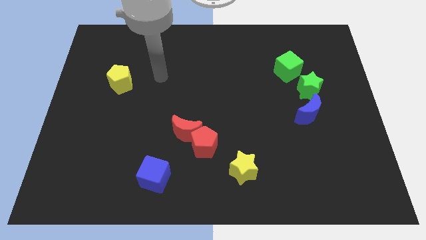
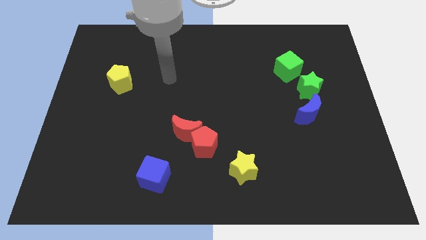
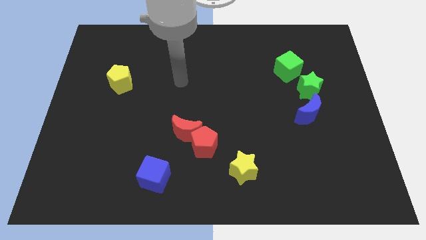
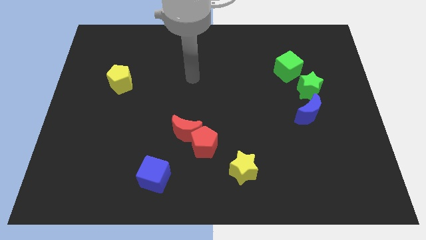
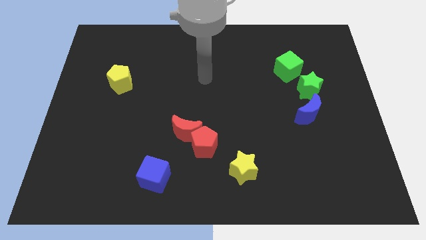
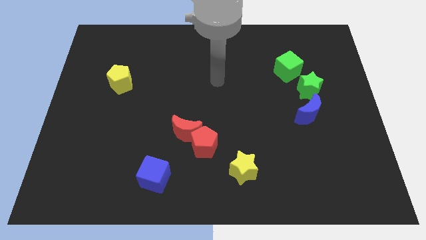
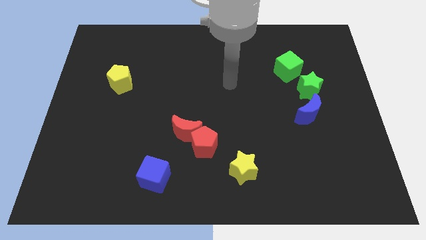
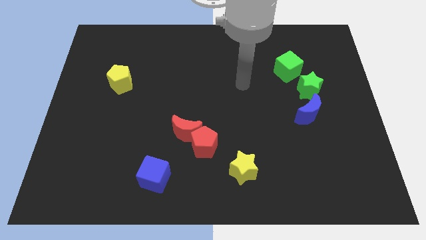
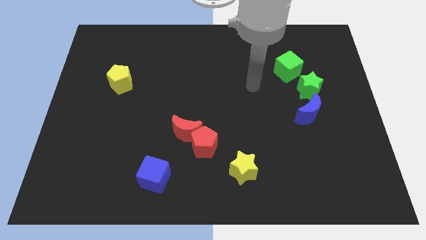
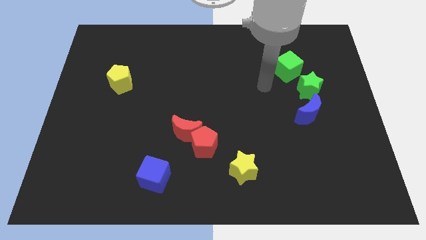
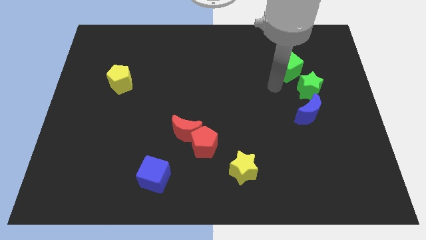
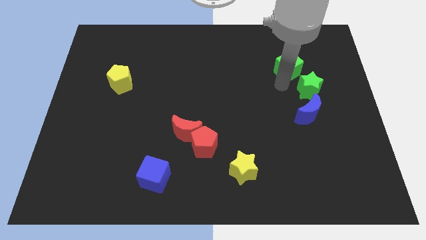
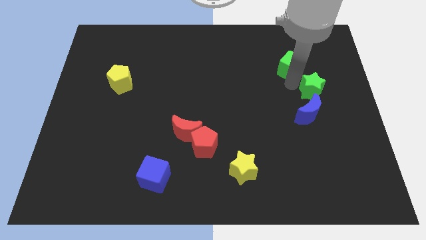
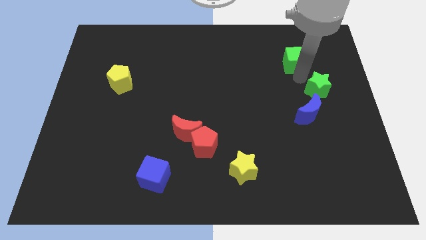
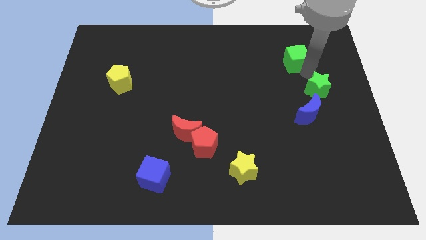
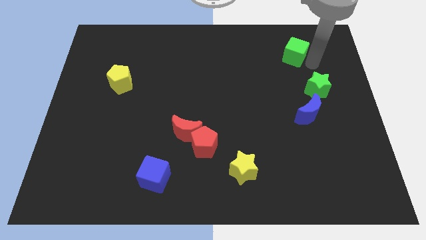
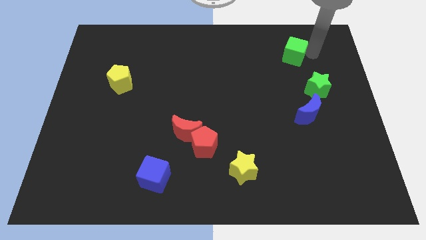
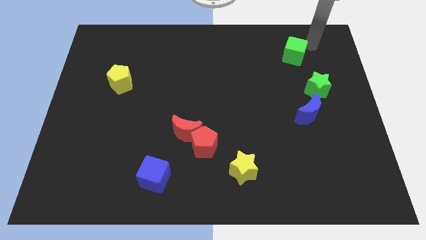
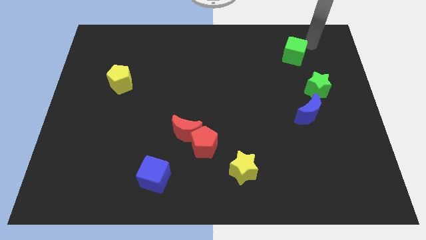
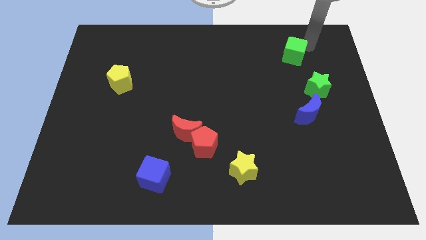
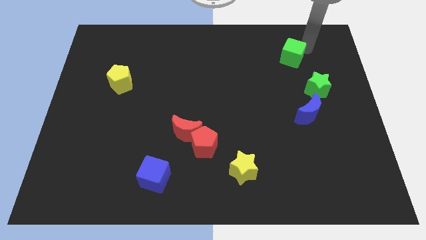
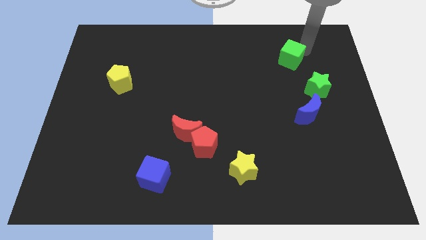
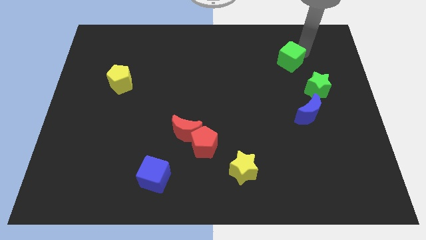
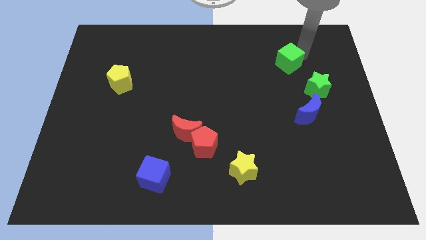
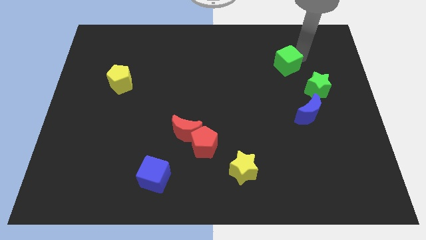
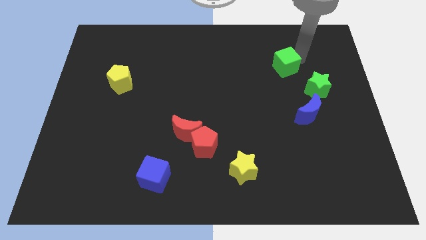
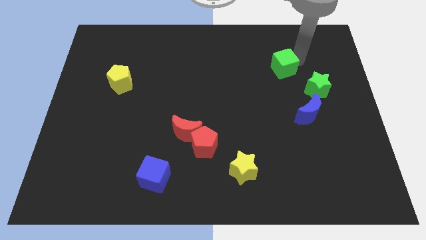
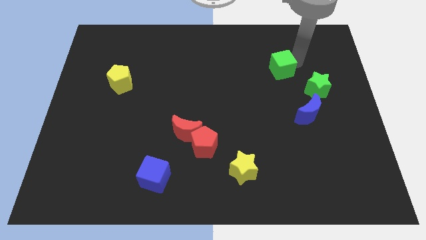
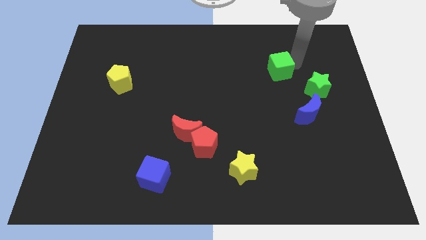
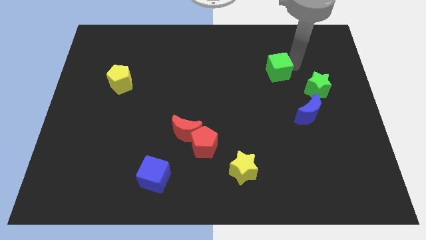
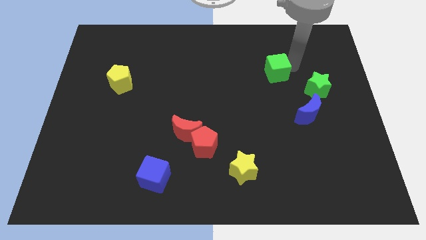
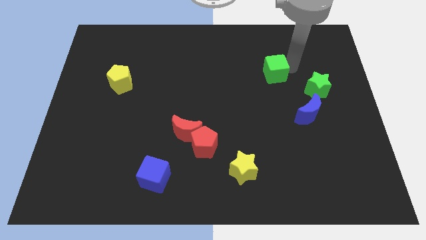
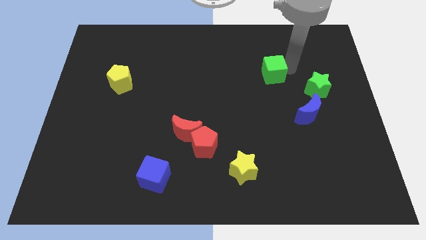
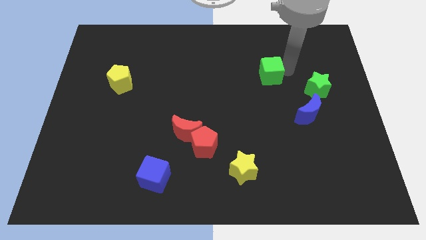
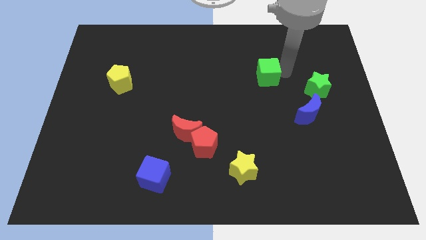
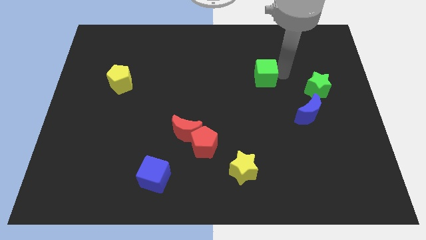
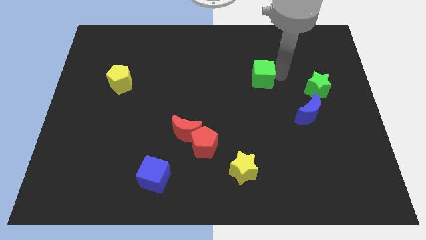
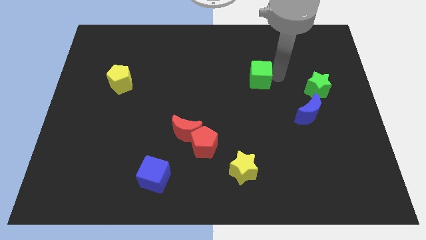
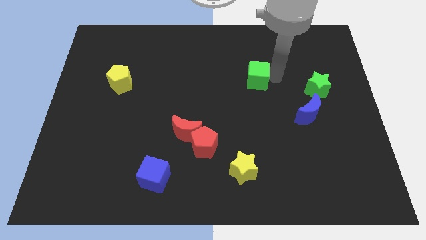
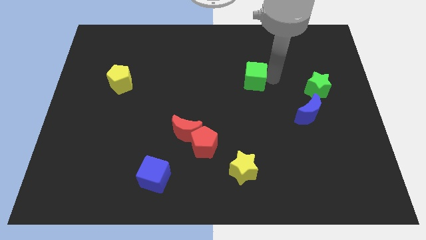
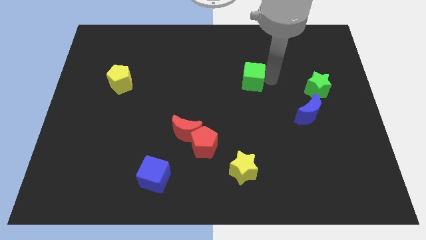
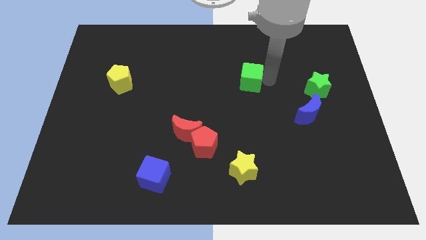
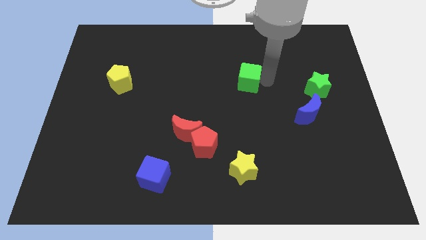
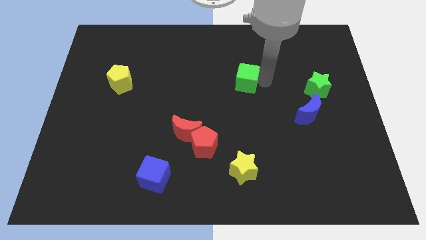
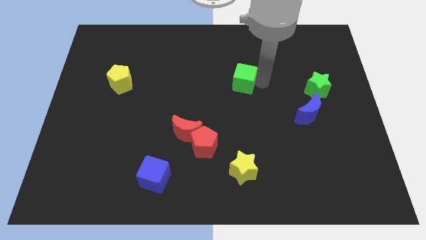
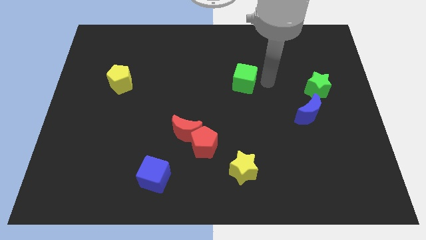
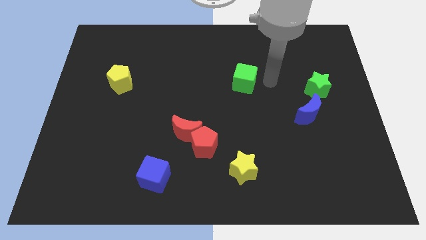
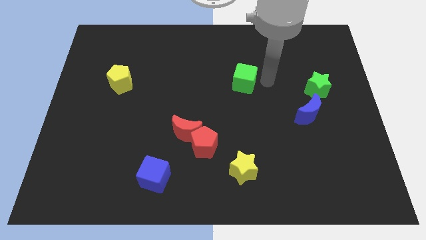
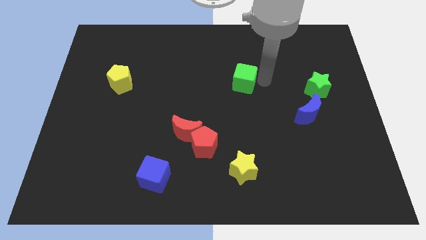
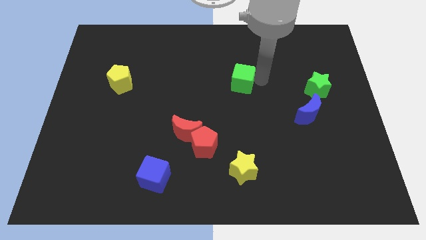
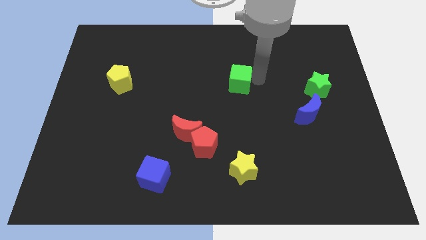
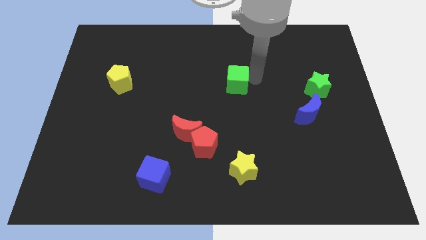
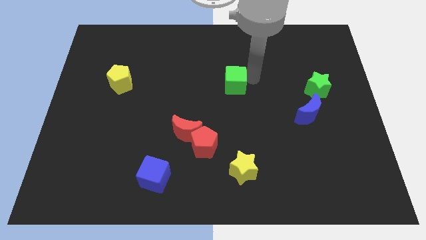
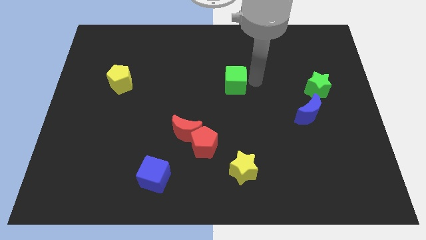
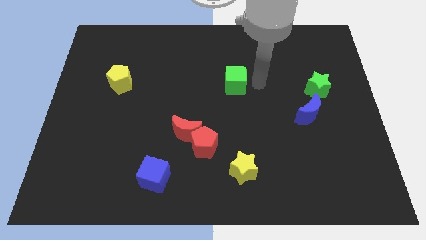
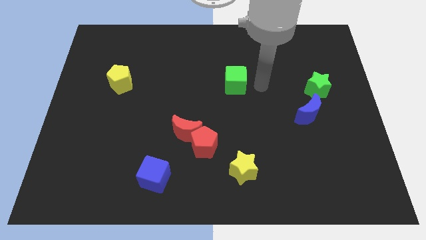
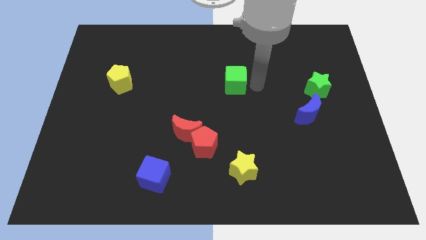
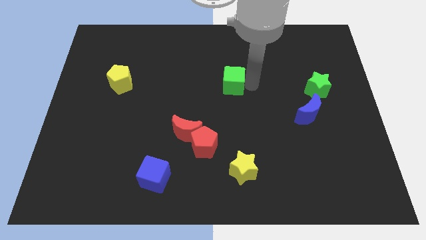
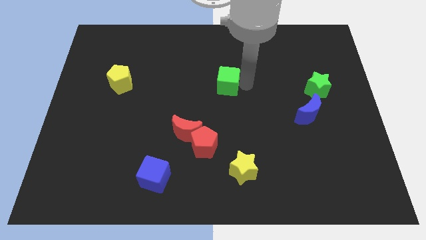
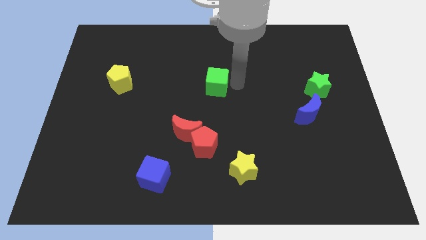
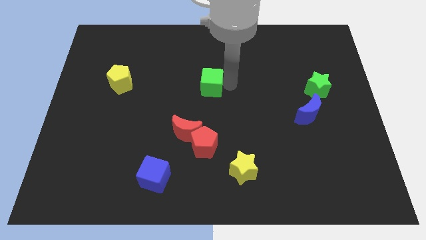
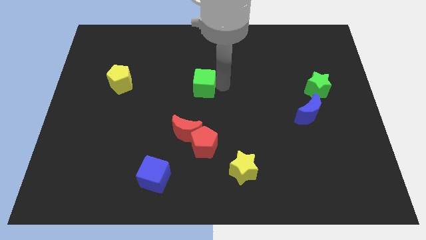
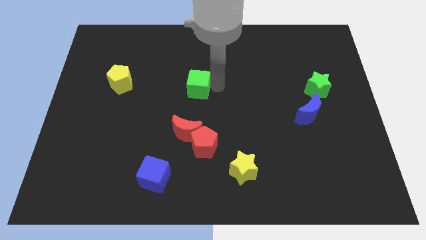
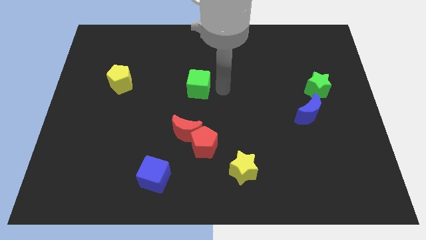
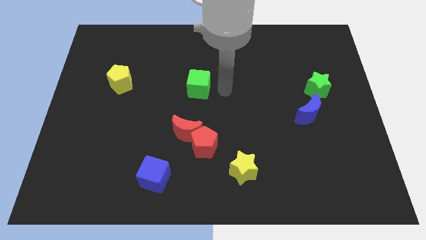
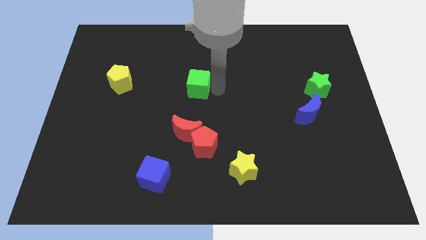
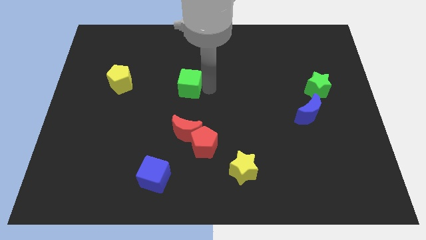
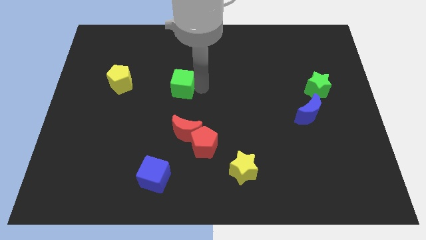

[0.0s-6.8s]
slide the green cube to the right of the yellow pentagon
